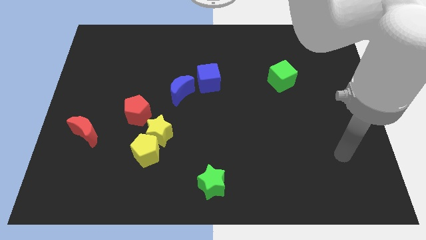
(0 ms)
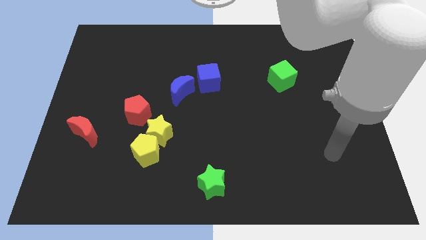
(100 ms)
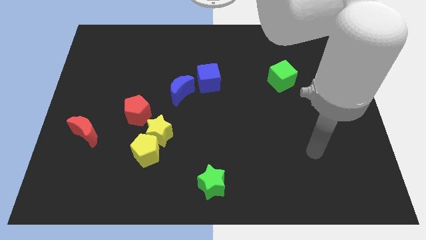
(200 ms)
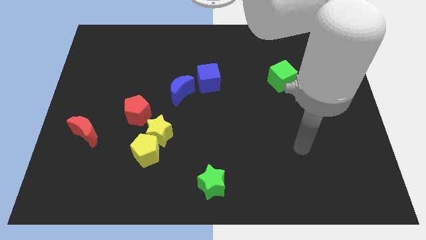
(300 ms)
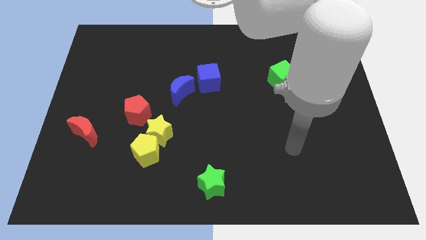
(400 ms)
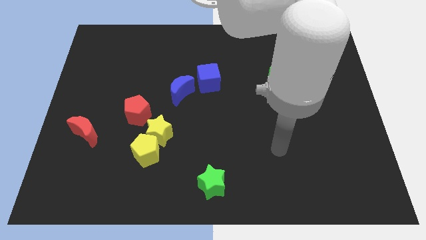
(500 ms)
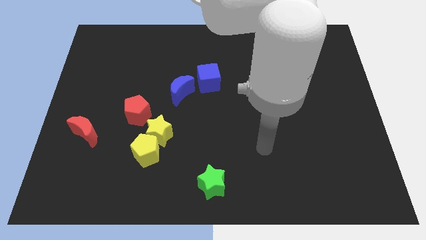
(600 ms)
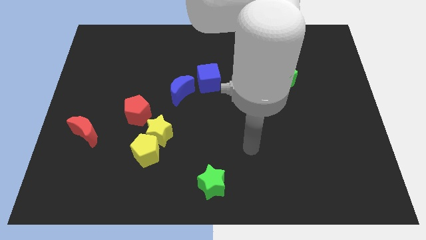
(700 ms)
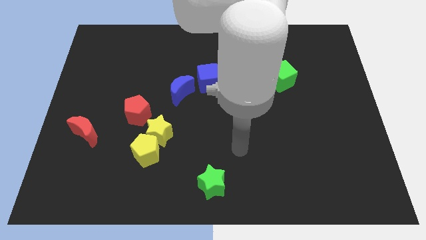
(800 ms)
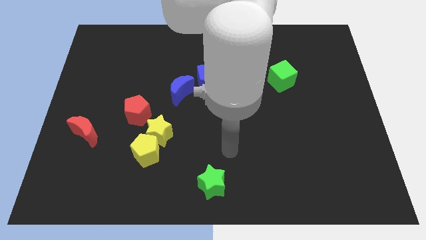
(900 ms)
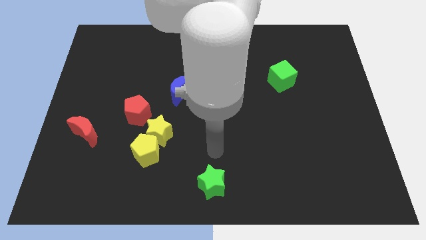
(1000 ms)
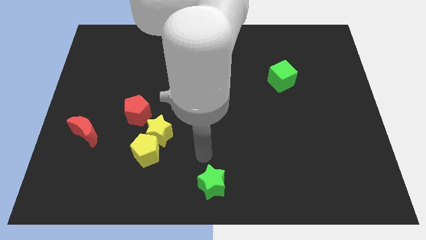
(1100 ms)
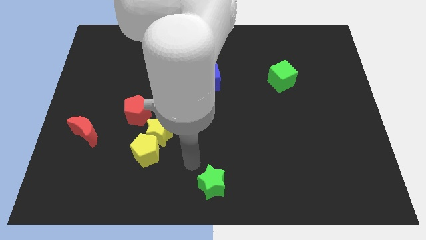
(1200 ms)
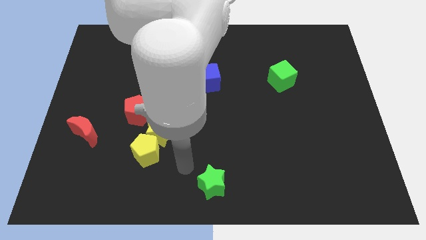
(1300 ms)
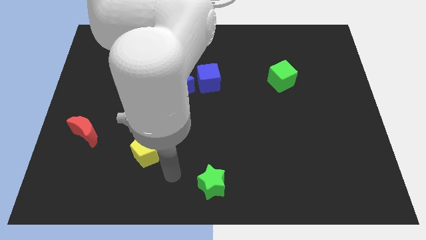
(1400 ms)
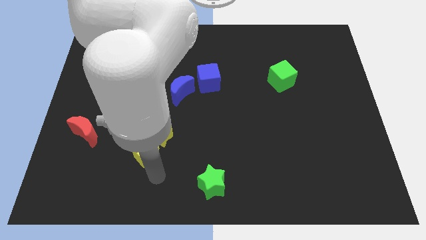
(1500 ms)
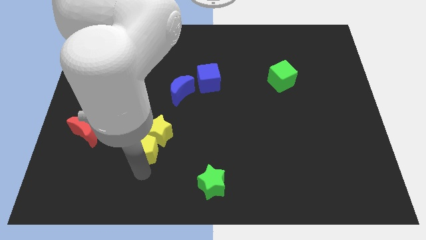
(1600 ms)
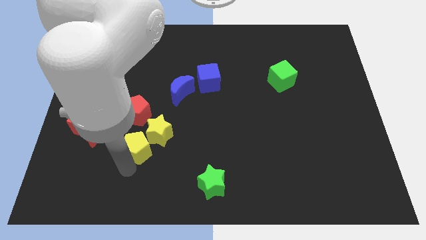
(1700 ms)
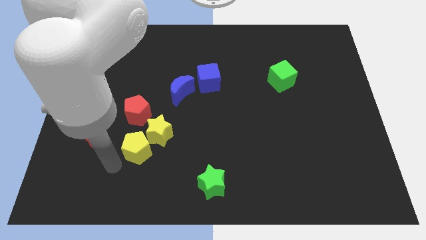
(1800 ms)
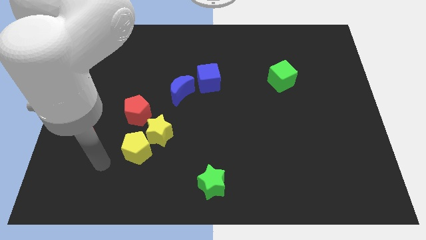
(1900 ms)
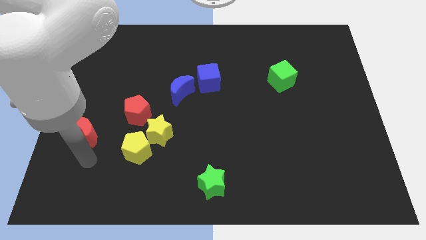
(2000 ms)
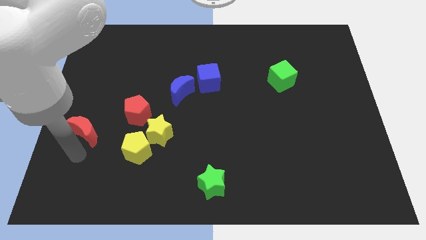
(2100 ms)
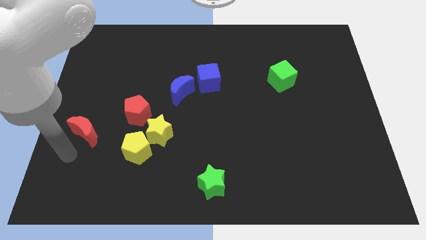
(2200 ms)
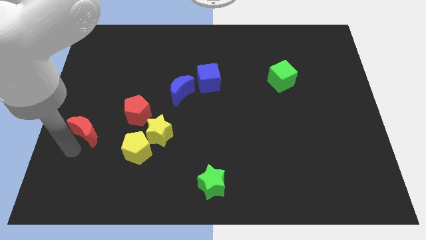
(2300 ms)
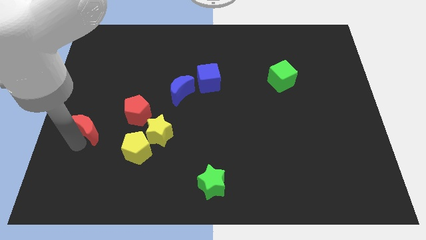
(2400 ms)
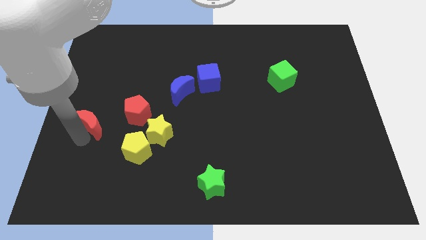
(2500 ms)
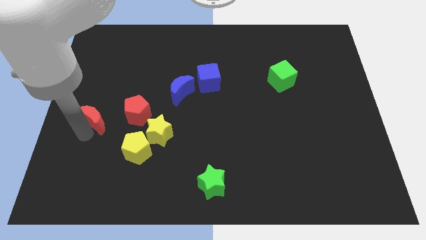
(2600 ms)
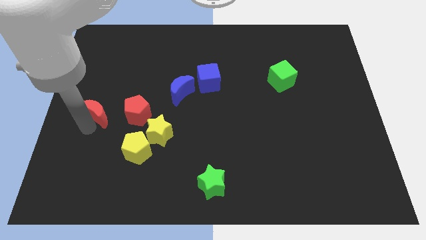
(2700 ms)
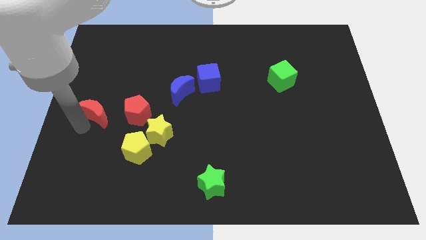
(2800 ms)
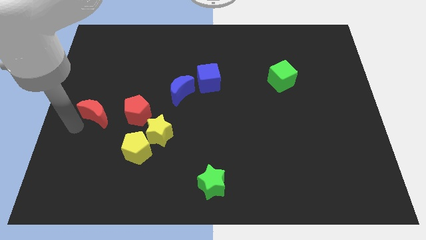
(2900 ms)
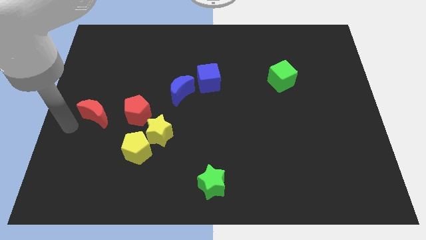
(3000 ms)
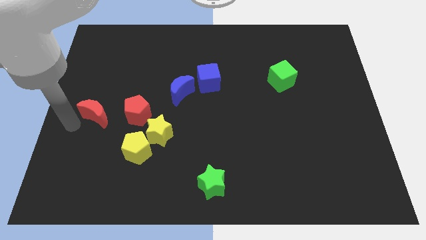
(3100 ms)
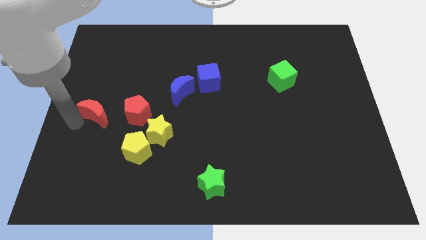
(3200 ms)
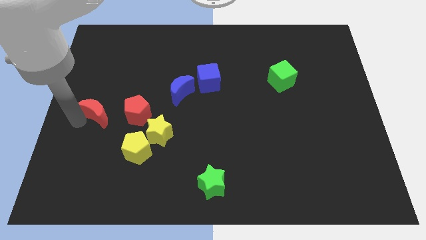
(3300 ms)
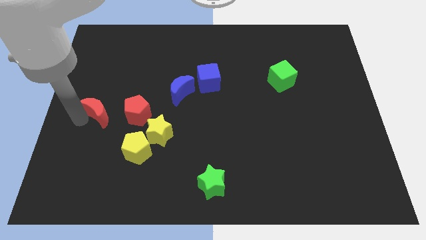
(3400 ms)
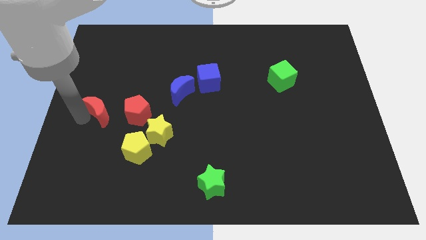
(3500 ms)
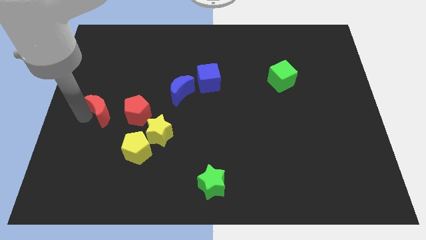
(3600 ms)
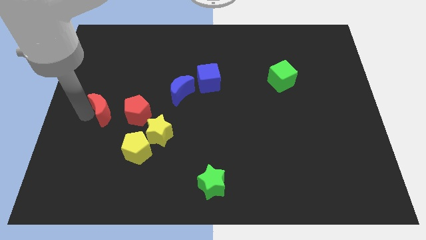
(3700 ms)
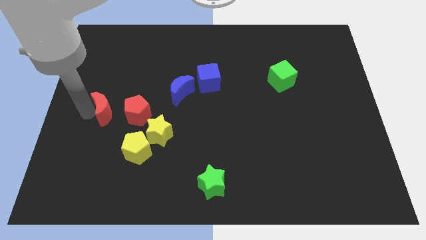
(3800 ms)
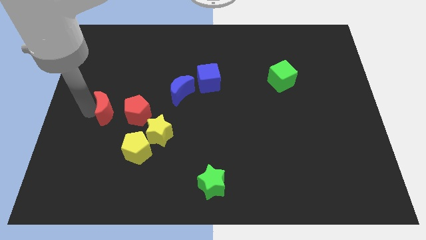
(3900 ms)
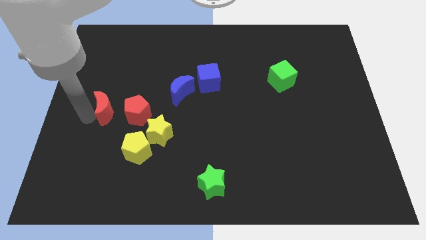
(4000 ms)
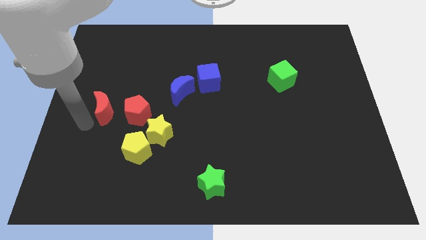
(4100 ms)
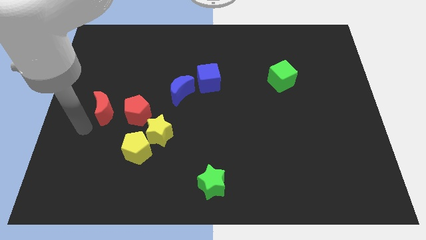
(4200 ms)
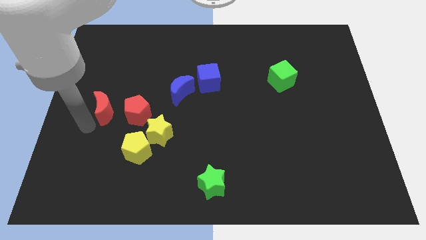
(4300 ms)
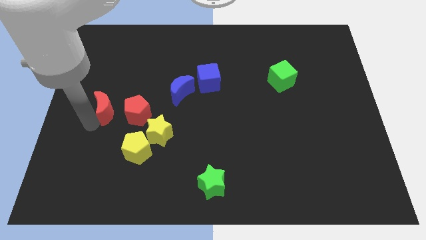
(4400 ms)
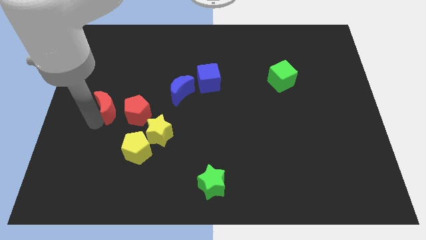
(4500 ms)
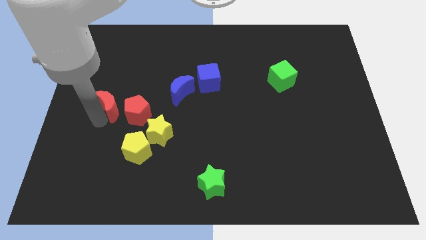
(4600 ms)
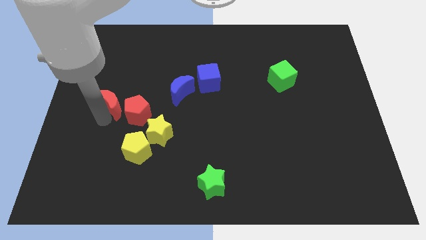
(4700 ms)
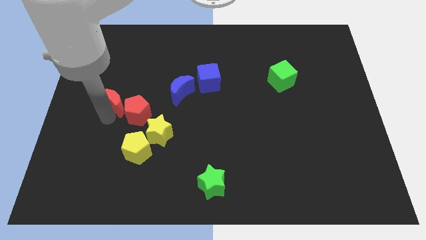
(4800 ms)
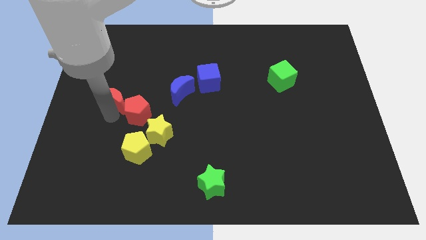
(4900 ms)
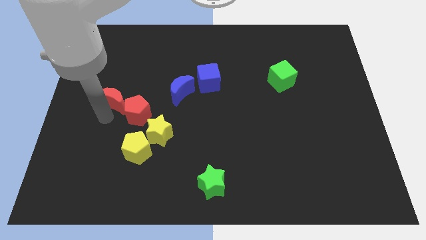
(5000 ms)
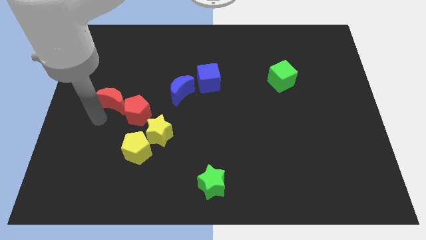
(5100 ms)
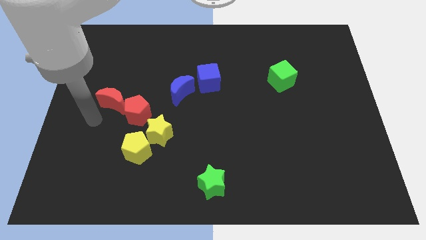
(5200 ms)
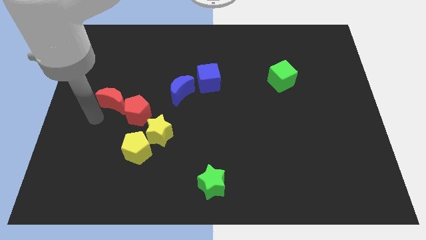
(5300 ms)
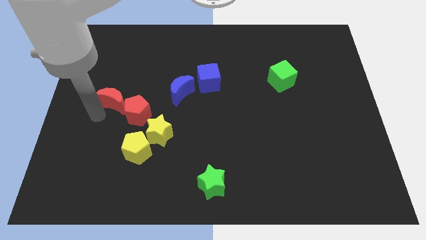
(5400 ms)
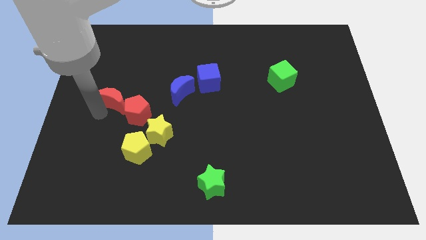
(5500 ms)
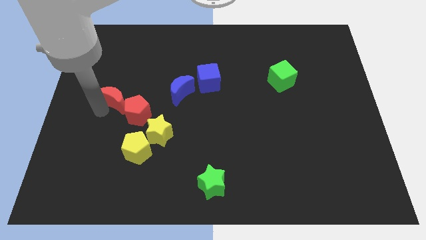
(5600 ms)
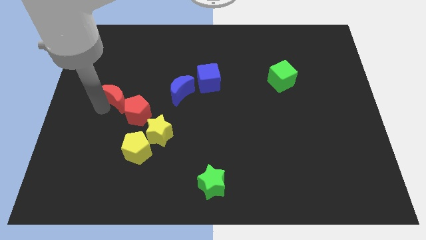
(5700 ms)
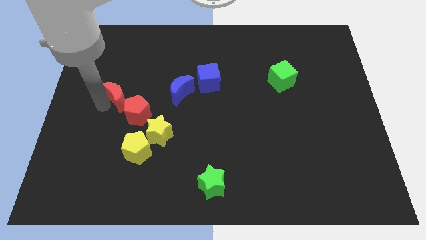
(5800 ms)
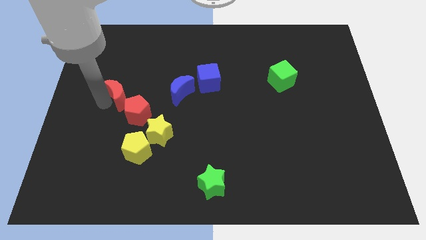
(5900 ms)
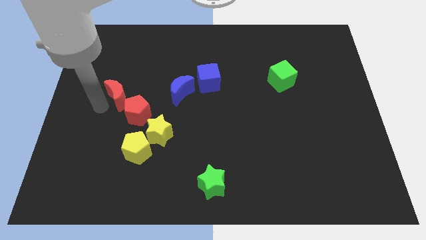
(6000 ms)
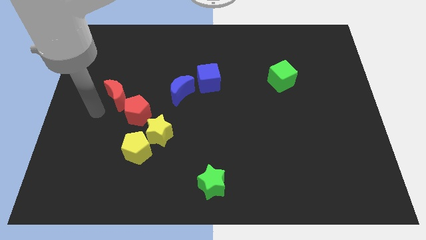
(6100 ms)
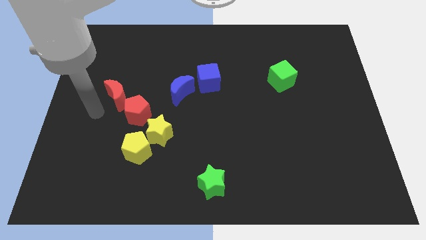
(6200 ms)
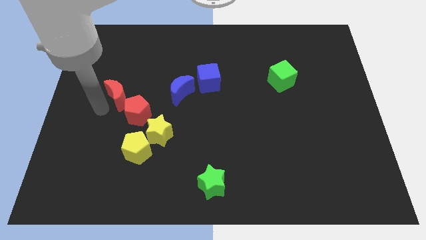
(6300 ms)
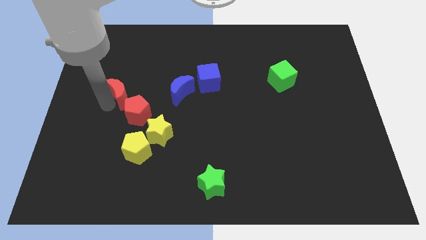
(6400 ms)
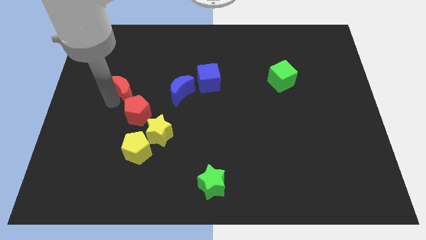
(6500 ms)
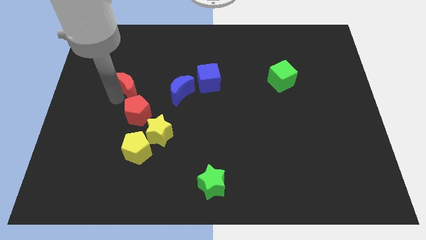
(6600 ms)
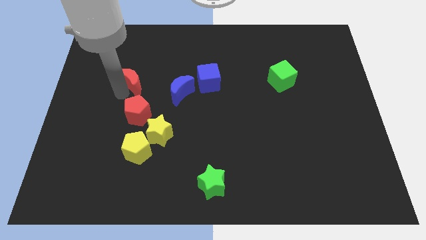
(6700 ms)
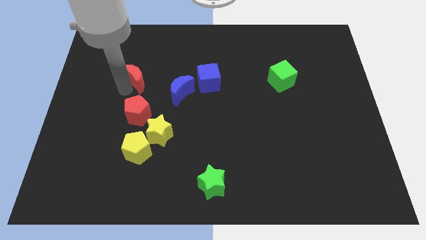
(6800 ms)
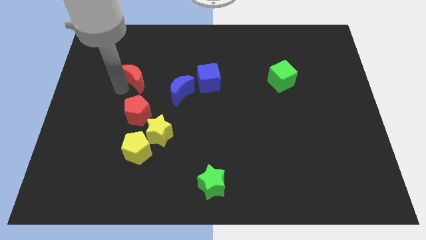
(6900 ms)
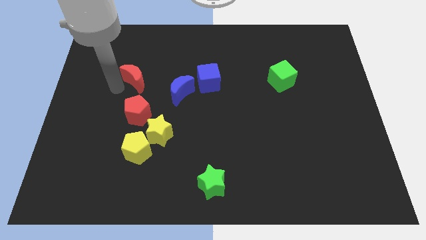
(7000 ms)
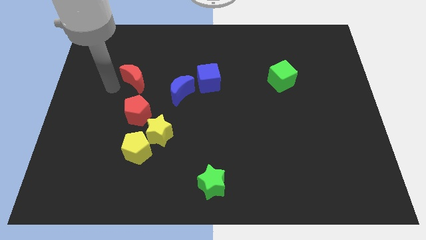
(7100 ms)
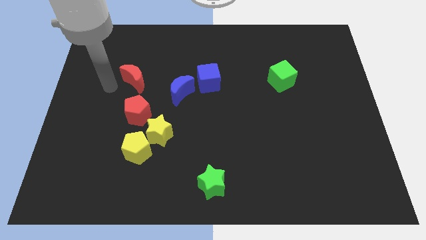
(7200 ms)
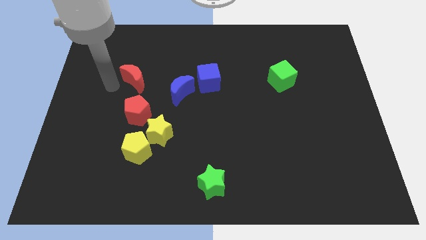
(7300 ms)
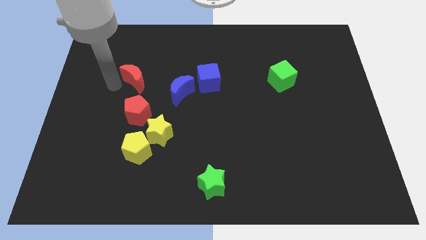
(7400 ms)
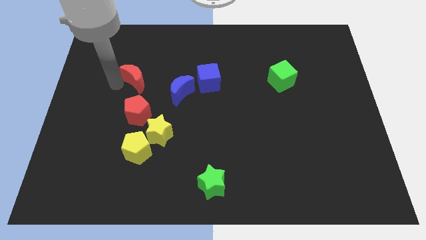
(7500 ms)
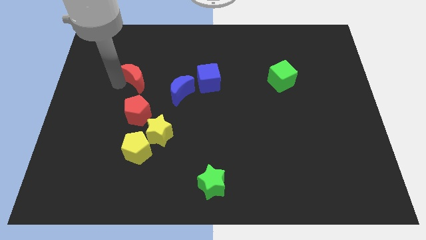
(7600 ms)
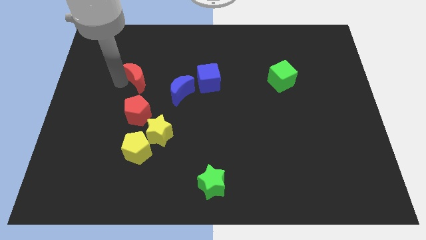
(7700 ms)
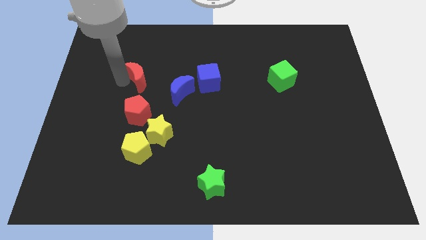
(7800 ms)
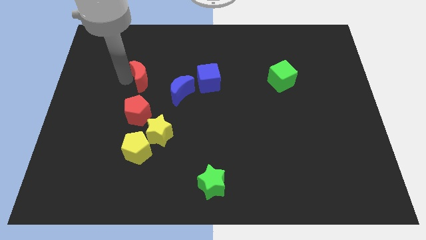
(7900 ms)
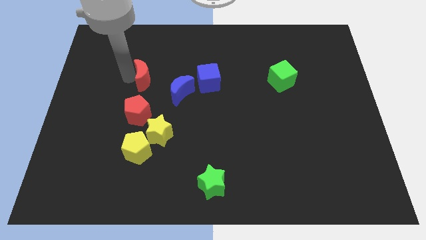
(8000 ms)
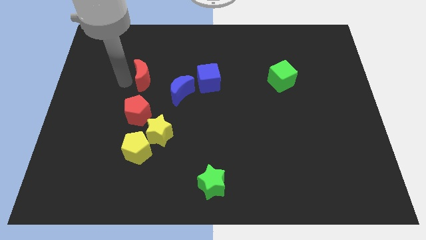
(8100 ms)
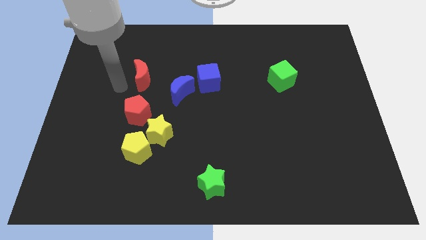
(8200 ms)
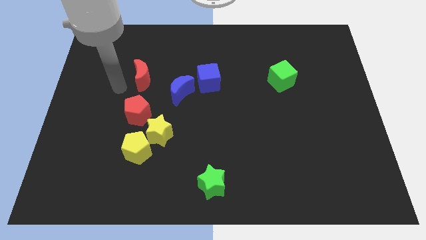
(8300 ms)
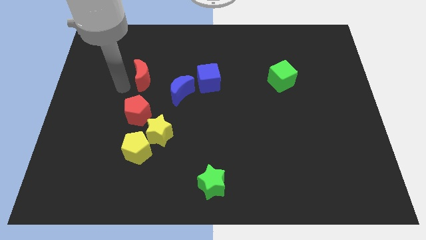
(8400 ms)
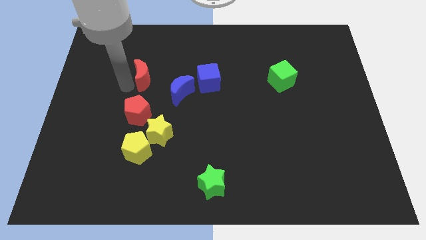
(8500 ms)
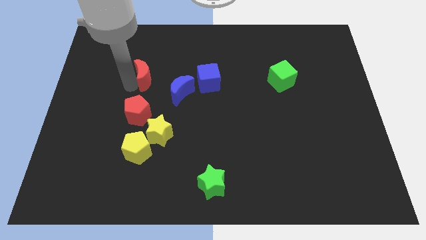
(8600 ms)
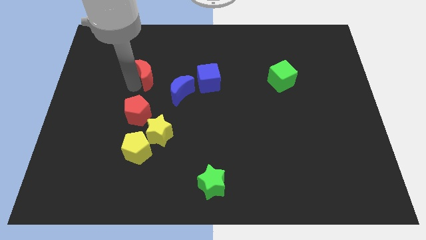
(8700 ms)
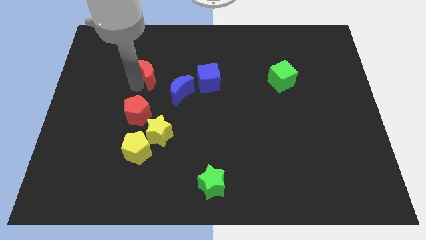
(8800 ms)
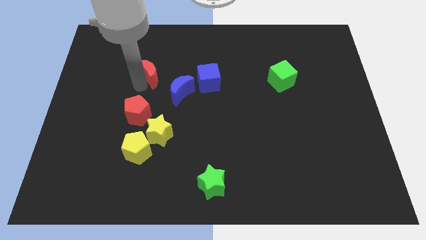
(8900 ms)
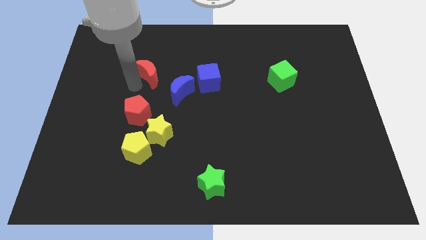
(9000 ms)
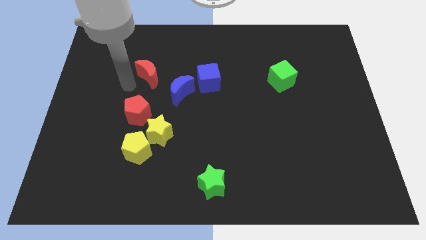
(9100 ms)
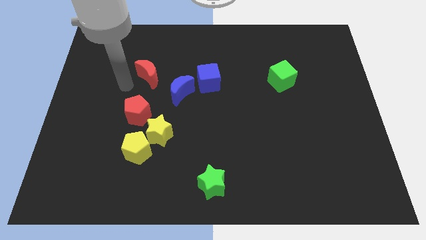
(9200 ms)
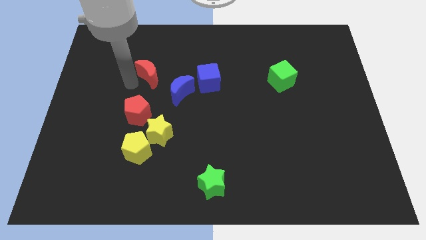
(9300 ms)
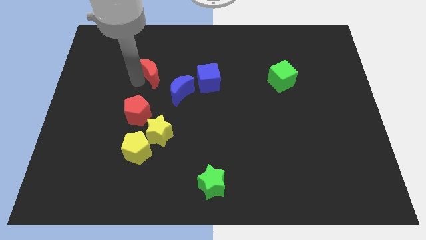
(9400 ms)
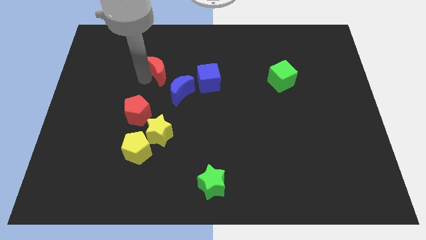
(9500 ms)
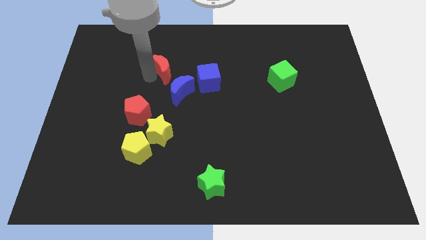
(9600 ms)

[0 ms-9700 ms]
slide the red moon above the blue moon
